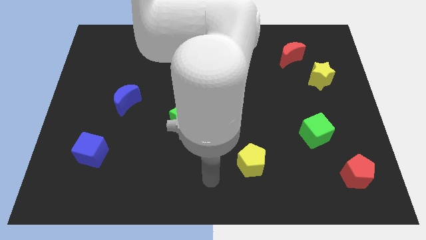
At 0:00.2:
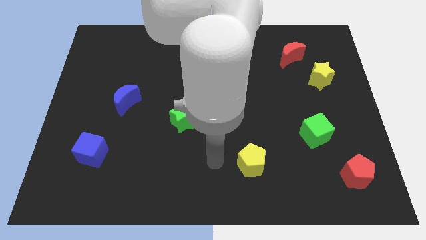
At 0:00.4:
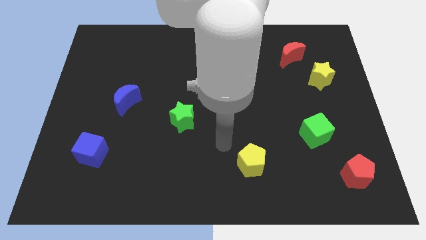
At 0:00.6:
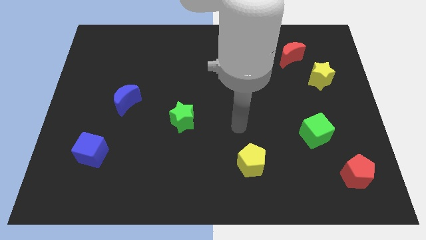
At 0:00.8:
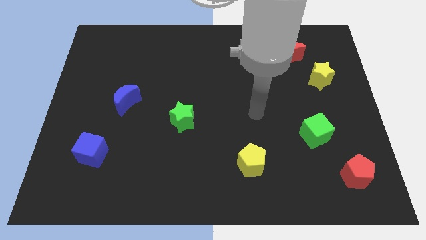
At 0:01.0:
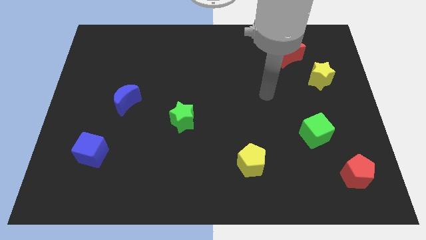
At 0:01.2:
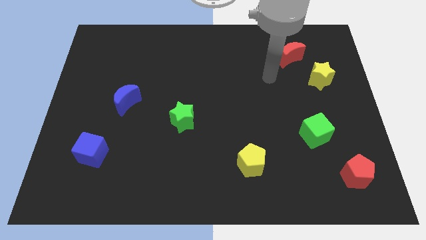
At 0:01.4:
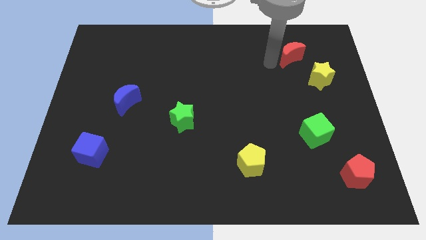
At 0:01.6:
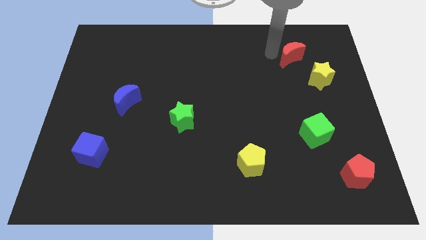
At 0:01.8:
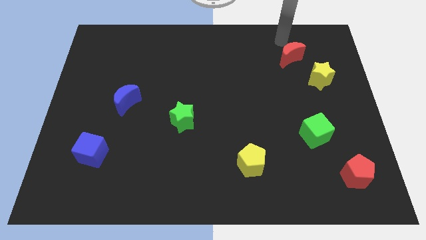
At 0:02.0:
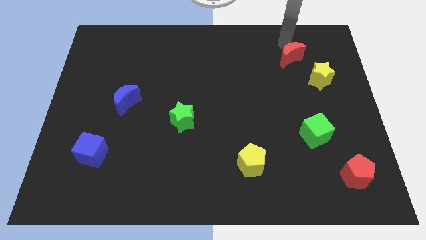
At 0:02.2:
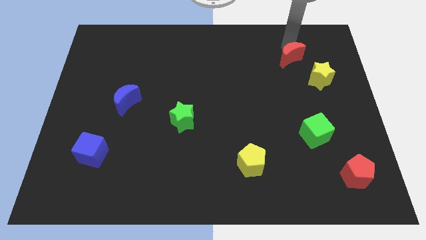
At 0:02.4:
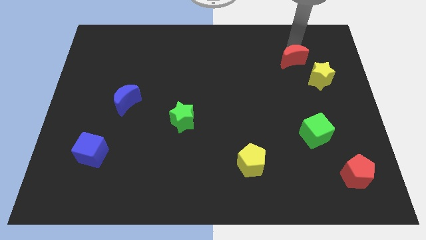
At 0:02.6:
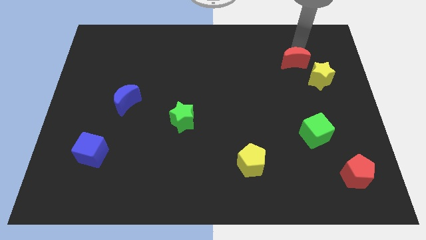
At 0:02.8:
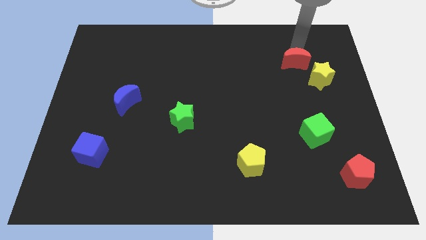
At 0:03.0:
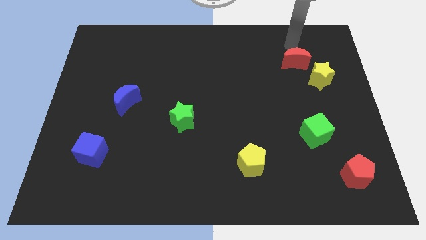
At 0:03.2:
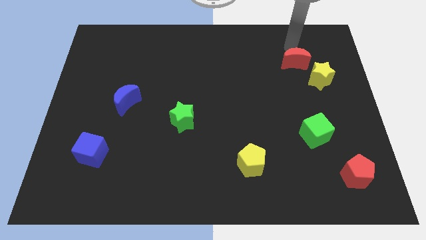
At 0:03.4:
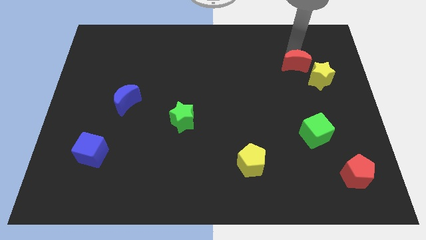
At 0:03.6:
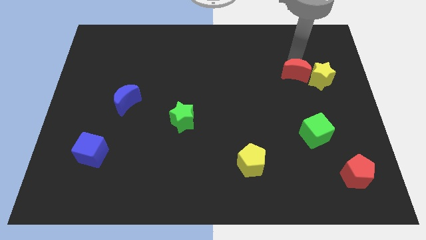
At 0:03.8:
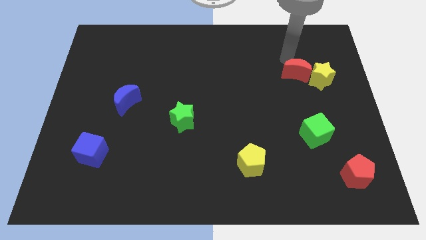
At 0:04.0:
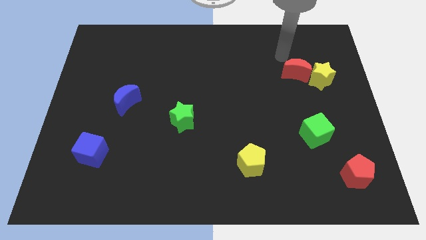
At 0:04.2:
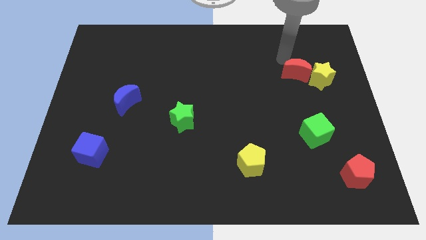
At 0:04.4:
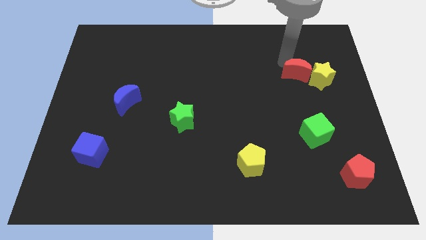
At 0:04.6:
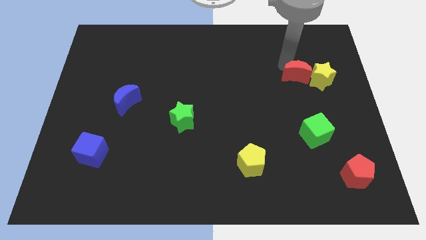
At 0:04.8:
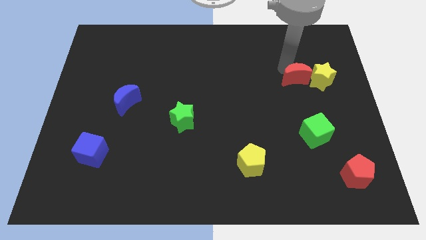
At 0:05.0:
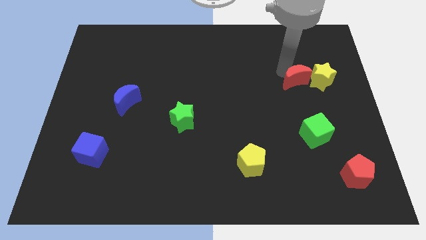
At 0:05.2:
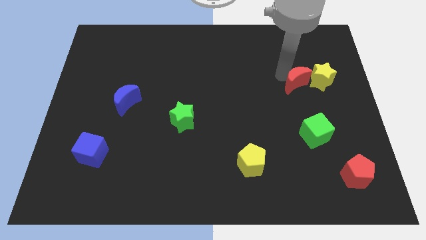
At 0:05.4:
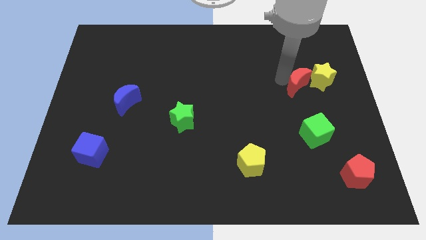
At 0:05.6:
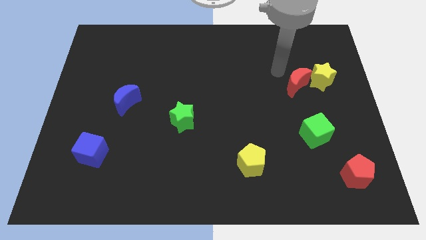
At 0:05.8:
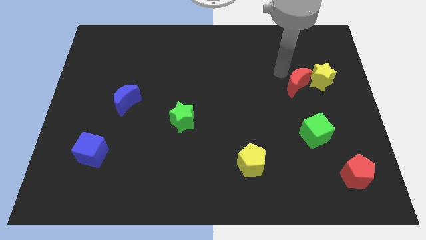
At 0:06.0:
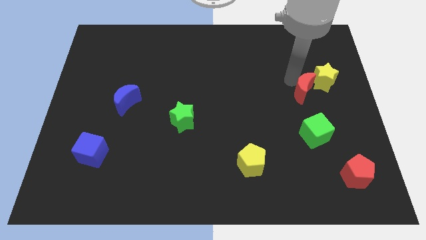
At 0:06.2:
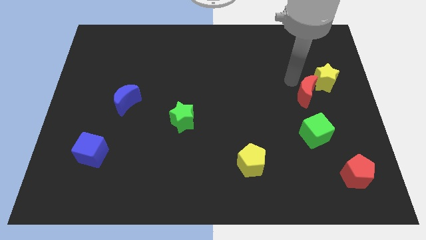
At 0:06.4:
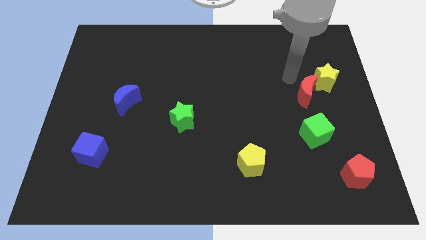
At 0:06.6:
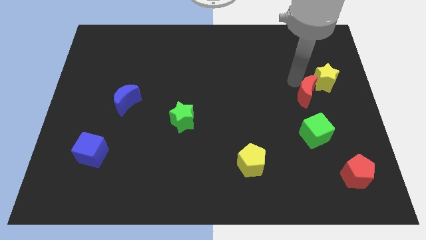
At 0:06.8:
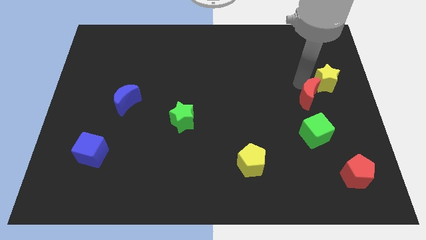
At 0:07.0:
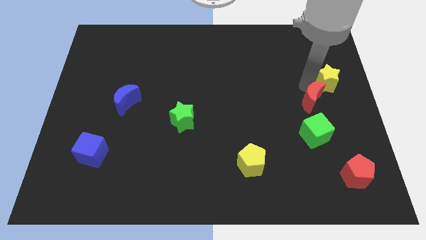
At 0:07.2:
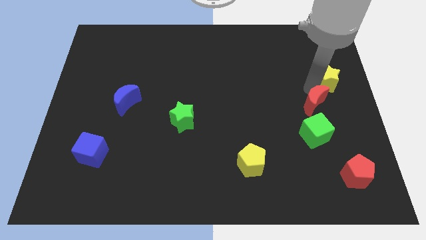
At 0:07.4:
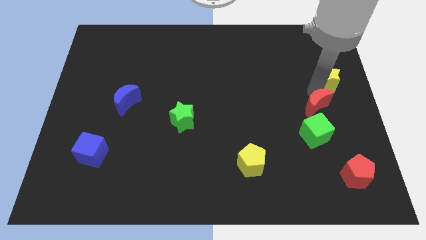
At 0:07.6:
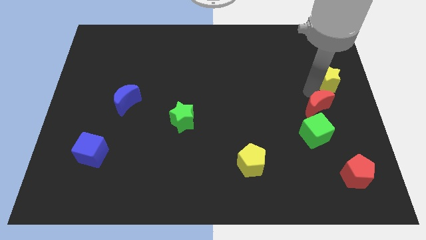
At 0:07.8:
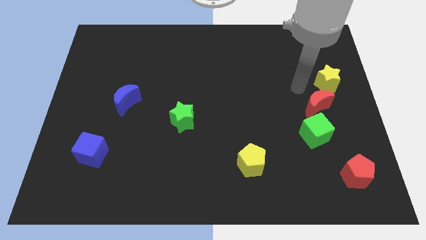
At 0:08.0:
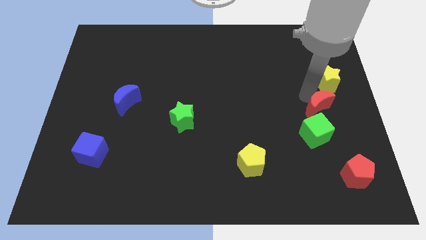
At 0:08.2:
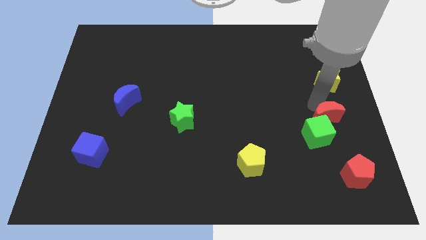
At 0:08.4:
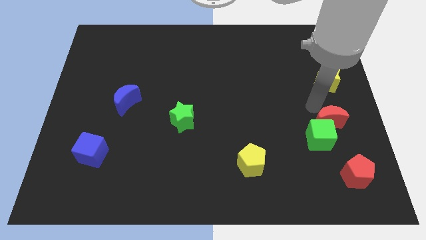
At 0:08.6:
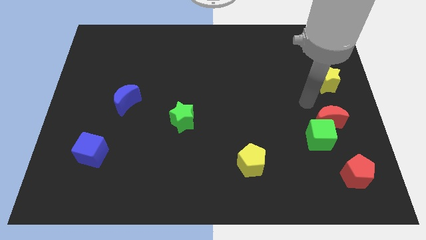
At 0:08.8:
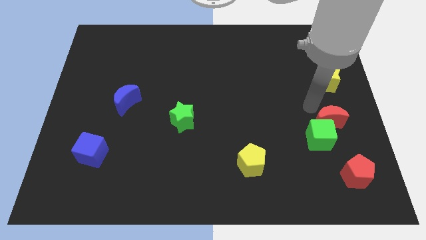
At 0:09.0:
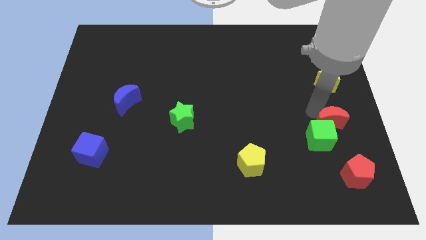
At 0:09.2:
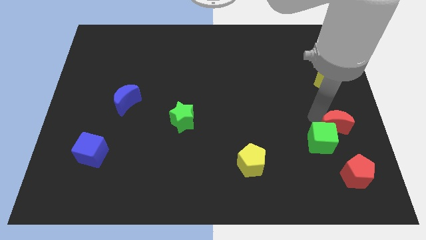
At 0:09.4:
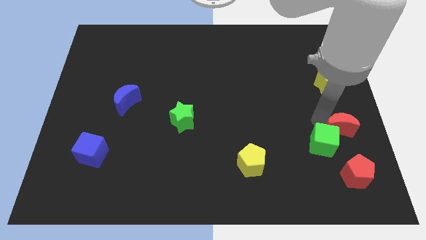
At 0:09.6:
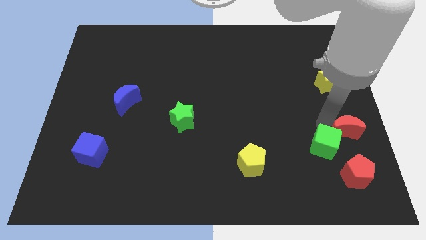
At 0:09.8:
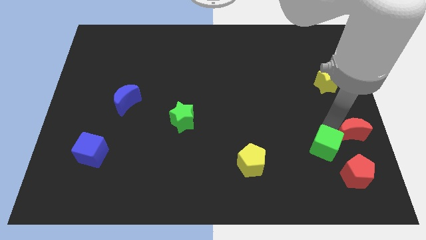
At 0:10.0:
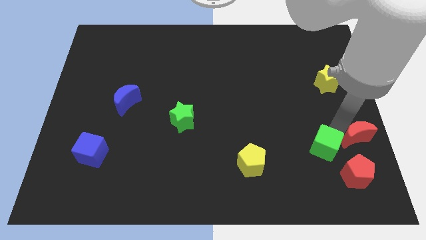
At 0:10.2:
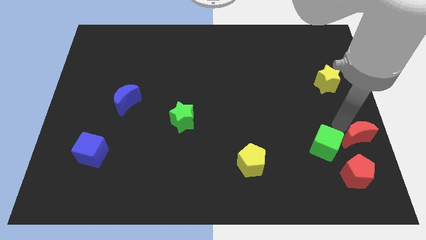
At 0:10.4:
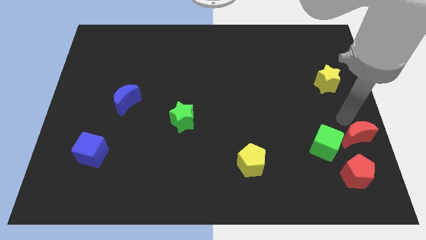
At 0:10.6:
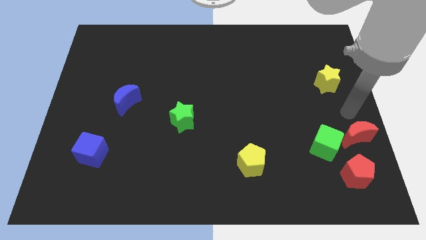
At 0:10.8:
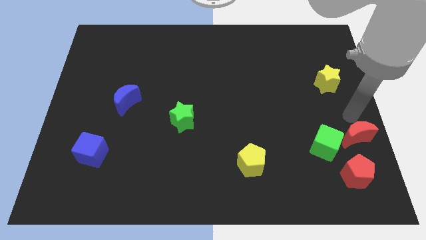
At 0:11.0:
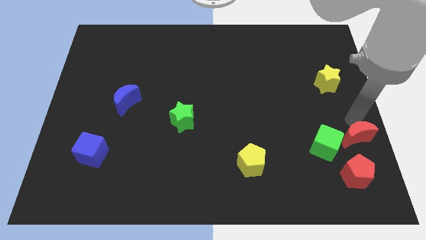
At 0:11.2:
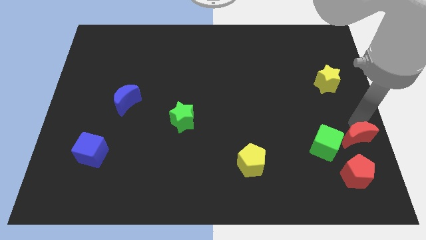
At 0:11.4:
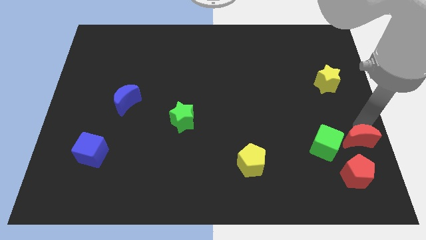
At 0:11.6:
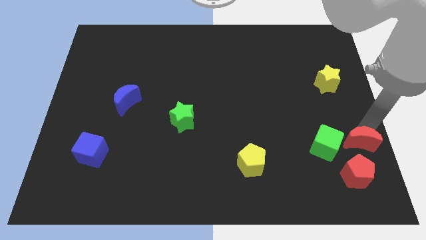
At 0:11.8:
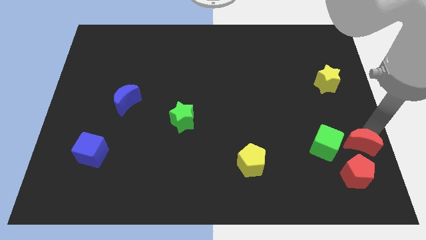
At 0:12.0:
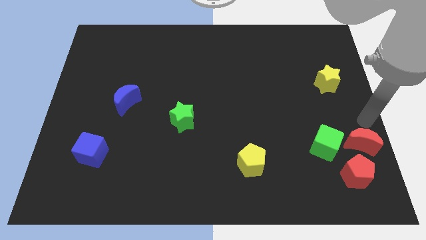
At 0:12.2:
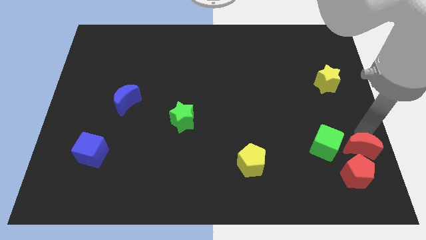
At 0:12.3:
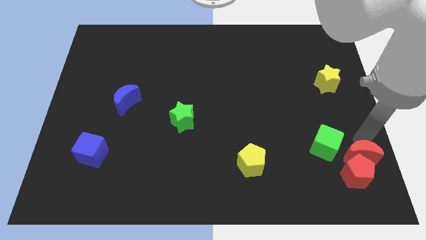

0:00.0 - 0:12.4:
slide the red moon towards the red pentagon

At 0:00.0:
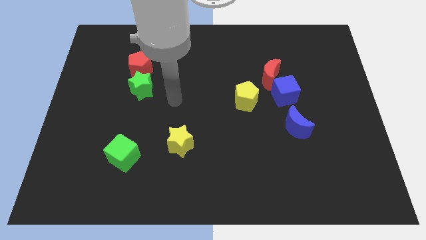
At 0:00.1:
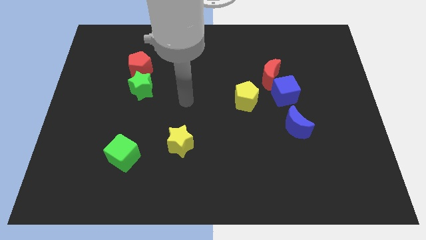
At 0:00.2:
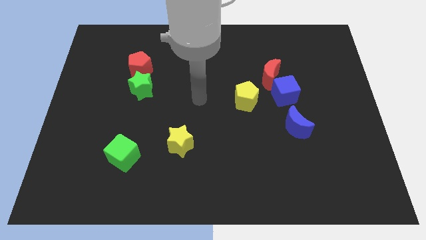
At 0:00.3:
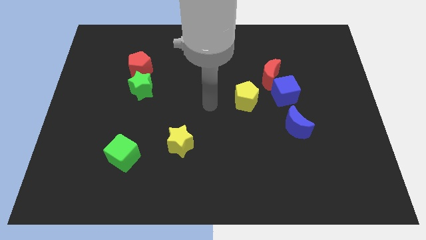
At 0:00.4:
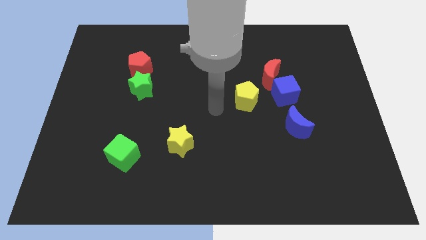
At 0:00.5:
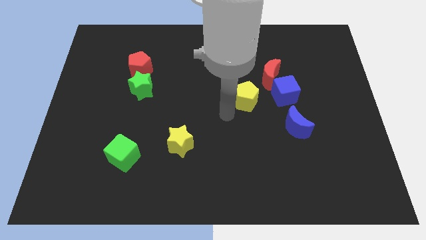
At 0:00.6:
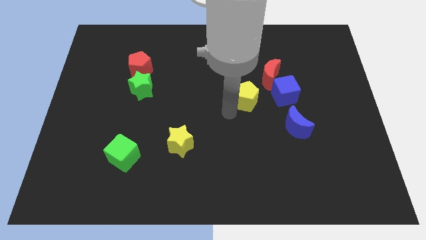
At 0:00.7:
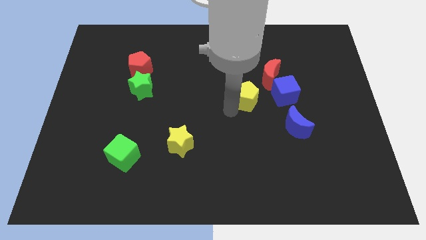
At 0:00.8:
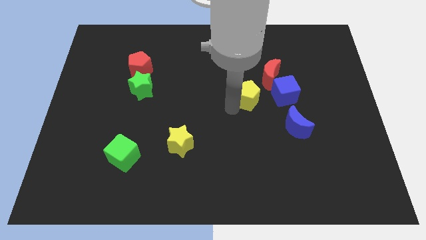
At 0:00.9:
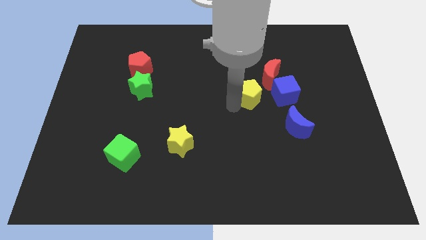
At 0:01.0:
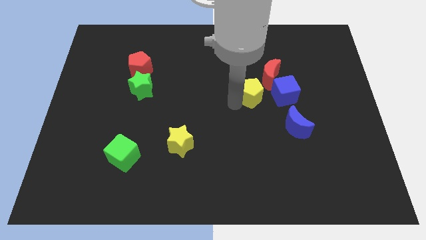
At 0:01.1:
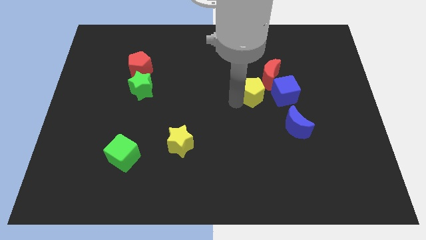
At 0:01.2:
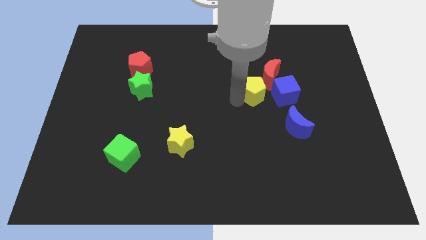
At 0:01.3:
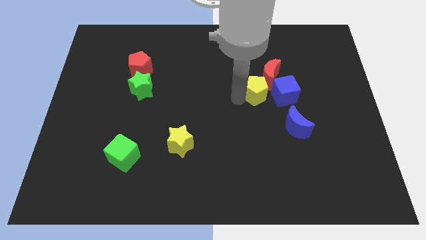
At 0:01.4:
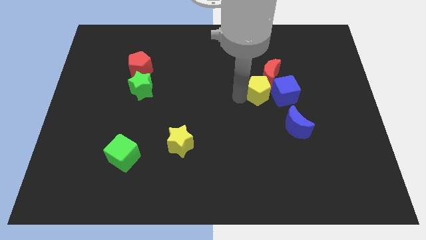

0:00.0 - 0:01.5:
push the yellow pentagon next to the red moon

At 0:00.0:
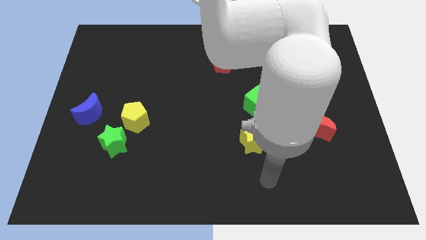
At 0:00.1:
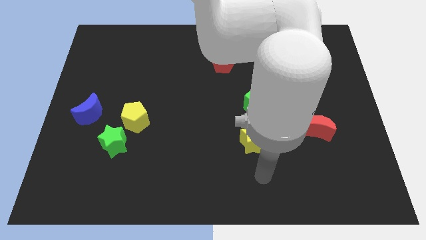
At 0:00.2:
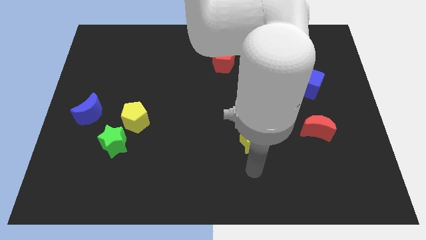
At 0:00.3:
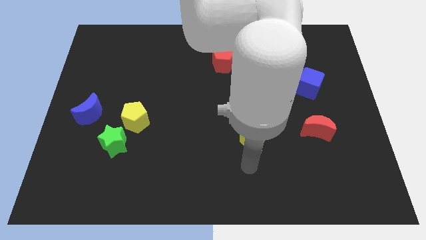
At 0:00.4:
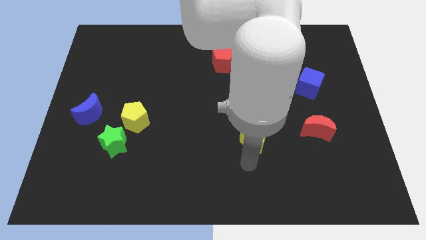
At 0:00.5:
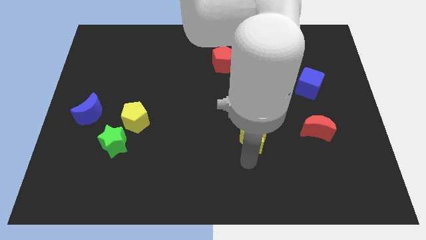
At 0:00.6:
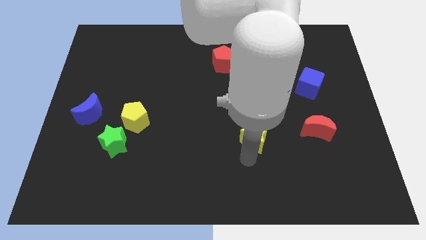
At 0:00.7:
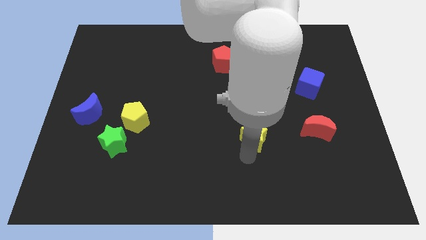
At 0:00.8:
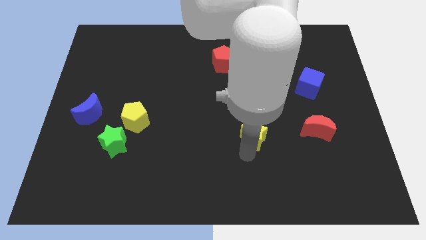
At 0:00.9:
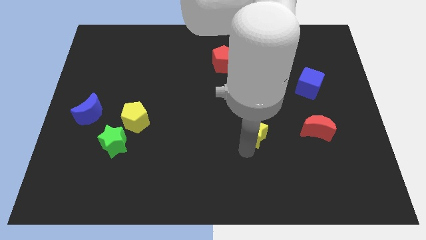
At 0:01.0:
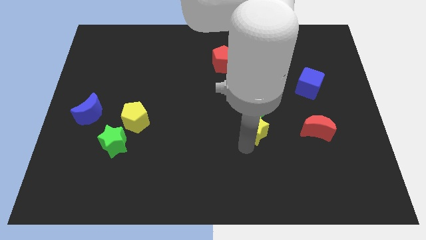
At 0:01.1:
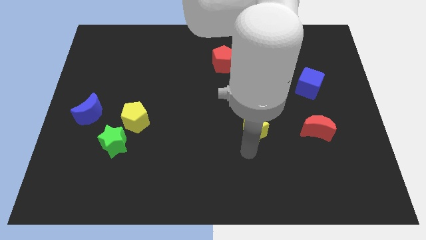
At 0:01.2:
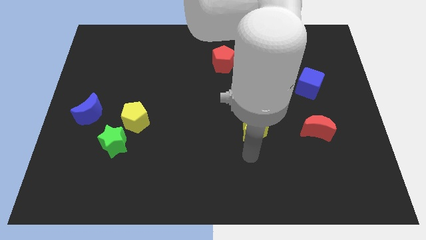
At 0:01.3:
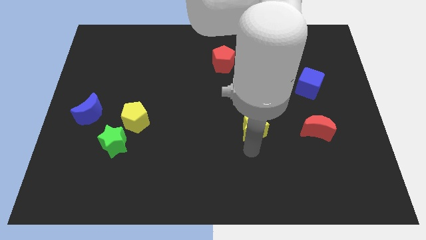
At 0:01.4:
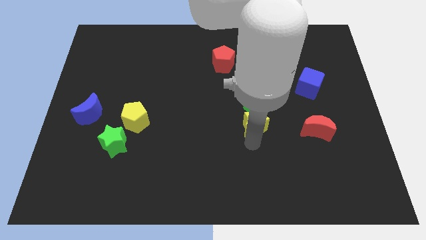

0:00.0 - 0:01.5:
slide the yellow star towards the green cube
